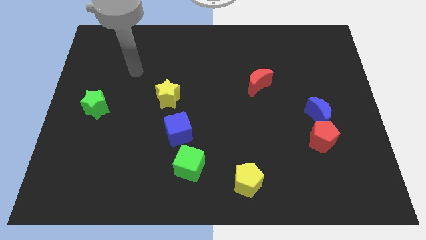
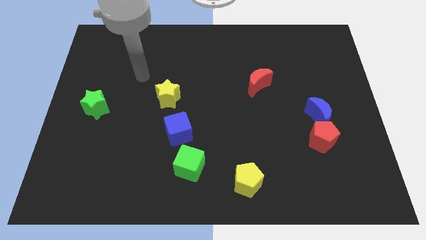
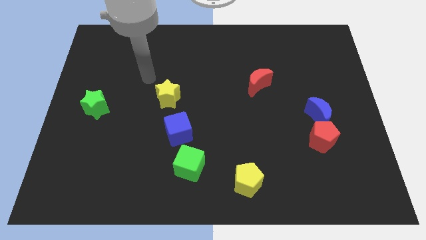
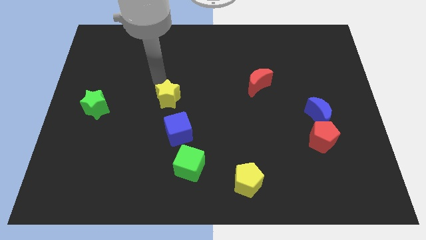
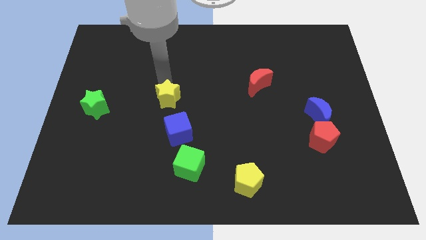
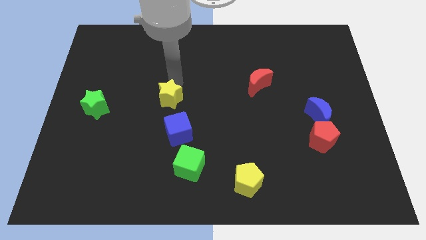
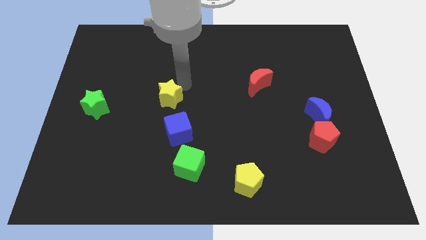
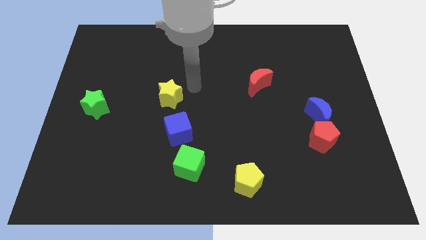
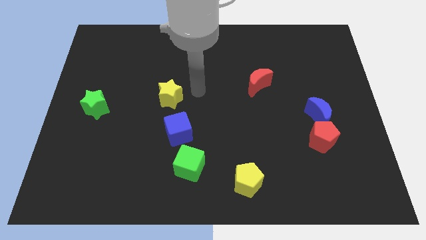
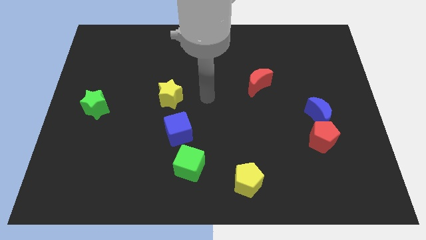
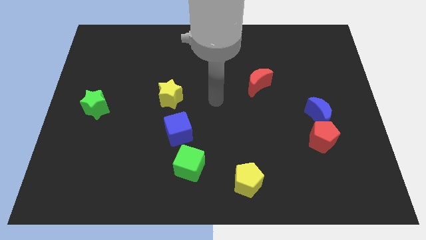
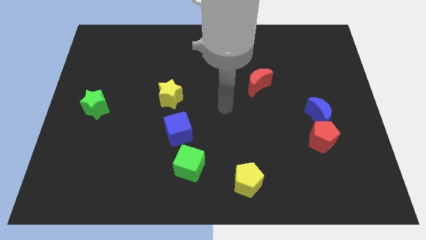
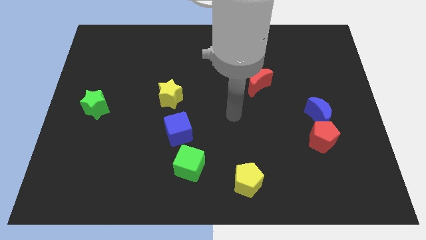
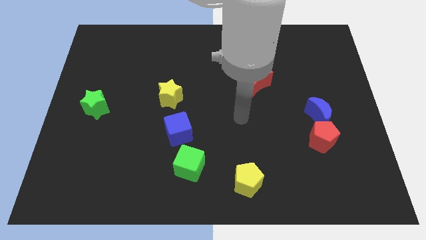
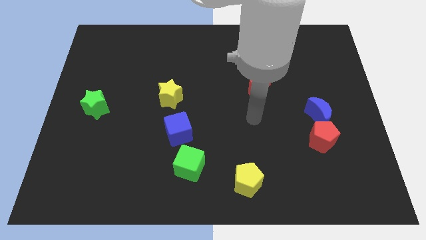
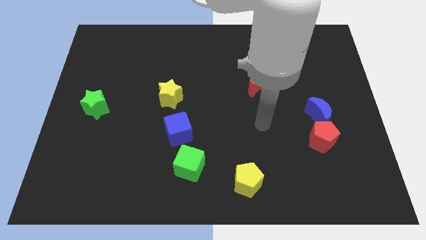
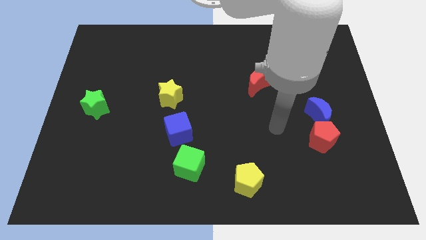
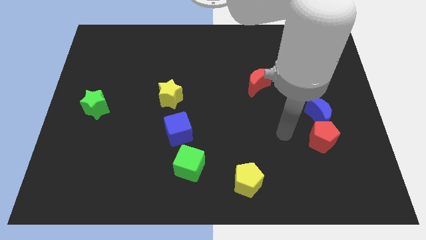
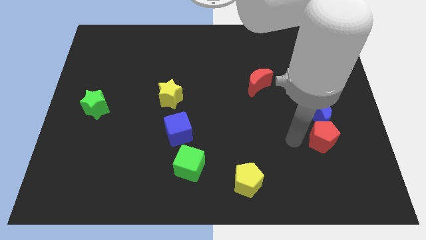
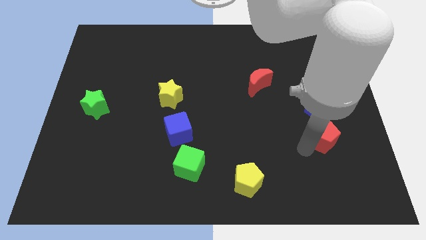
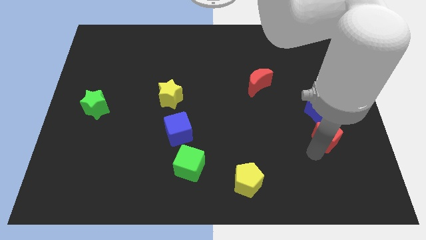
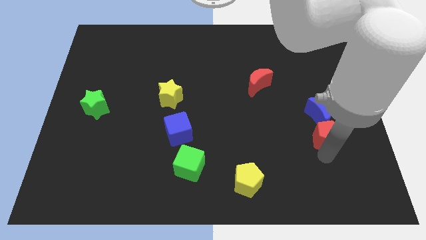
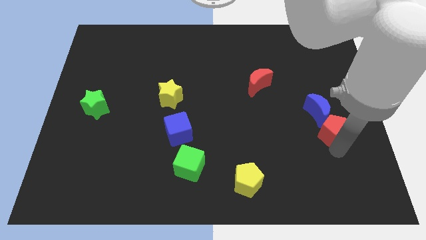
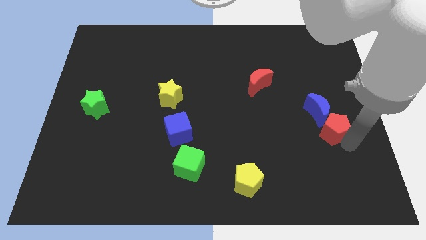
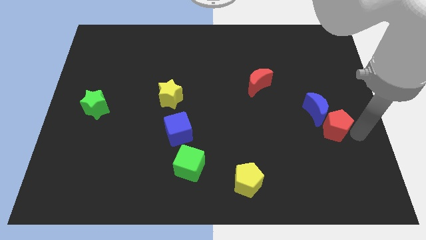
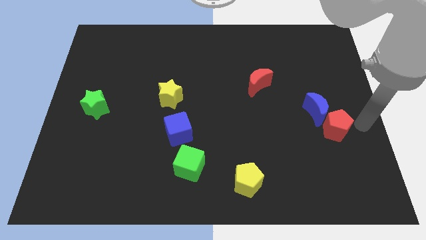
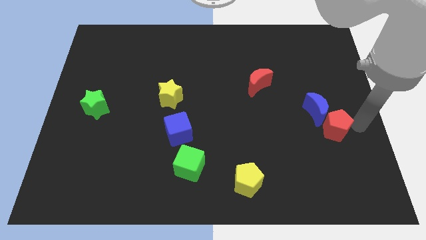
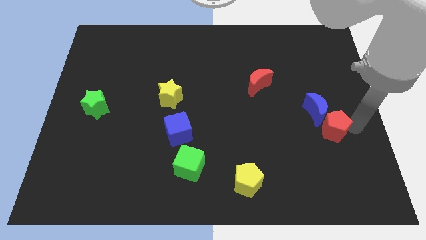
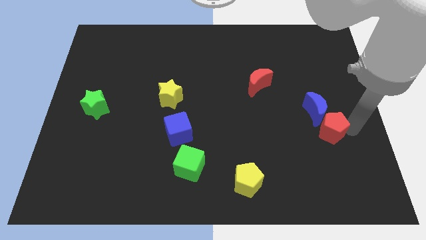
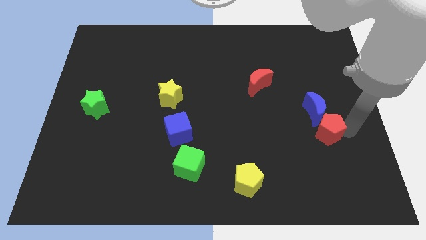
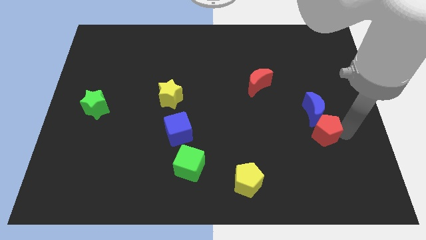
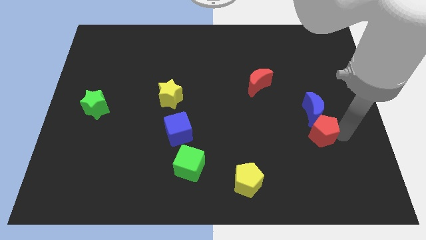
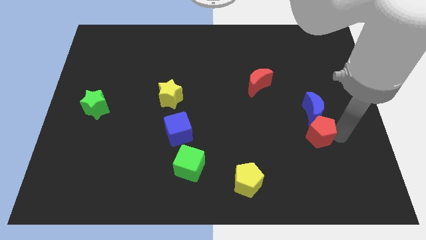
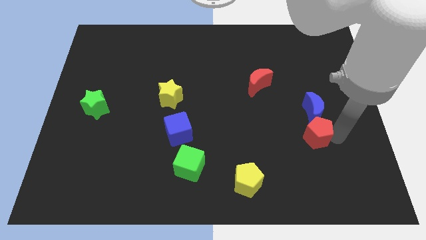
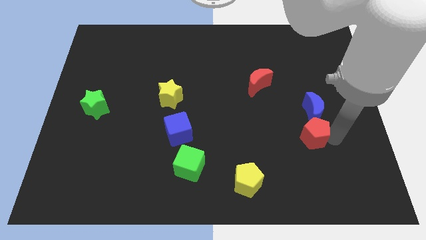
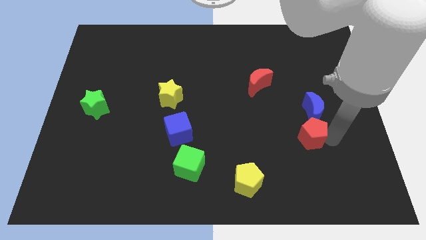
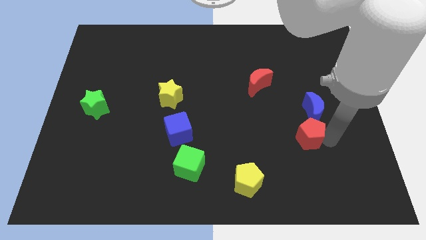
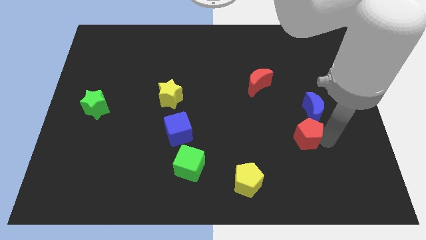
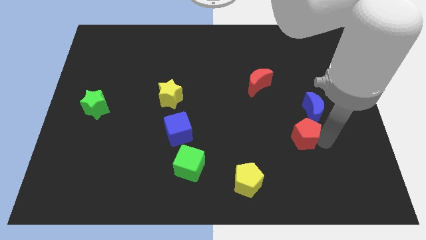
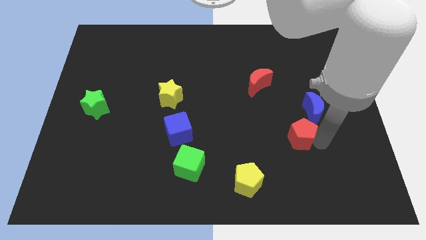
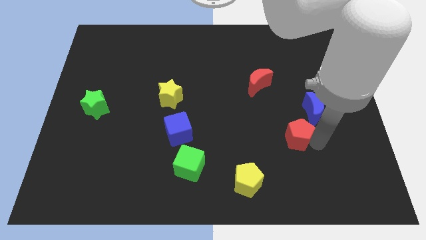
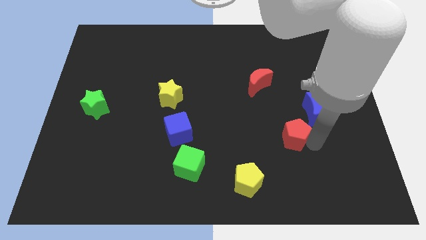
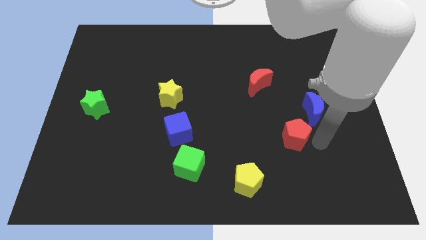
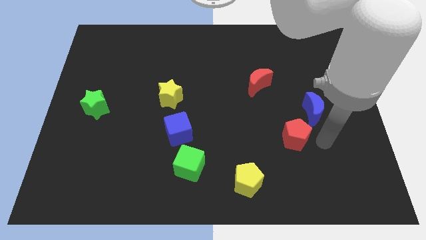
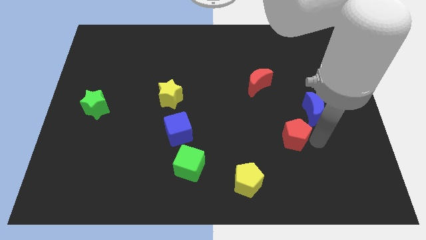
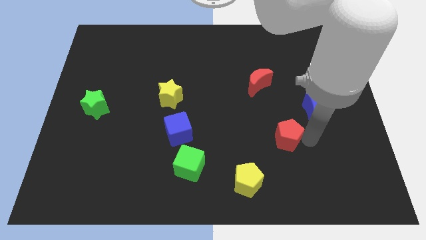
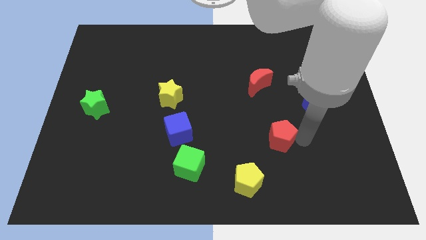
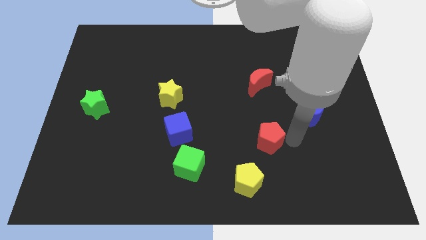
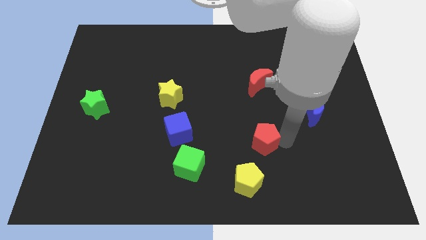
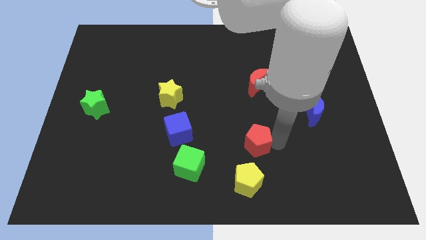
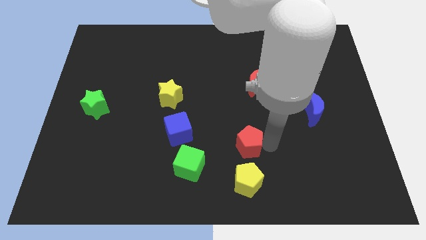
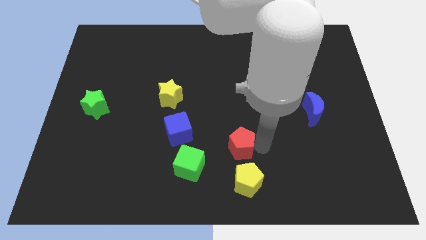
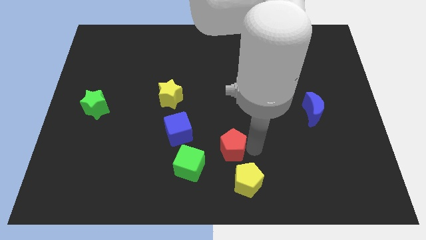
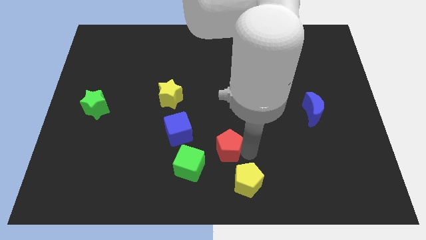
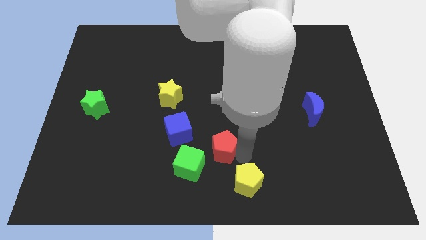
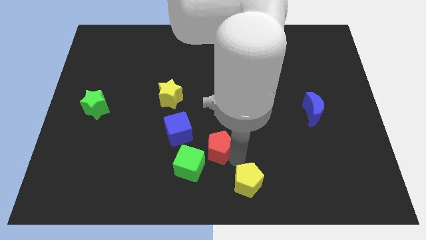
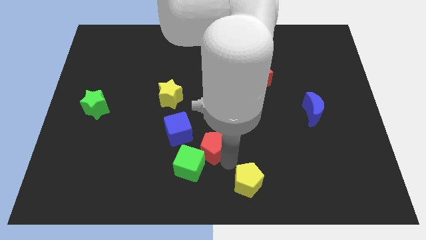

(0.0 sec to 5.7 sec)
slide the red pentagon above the green cube

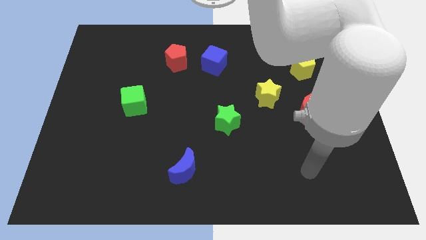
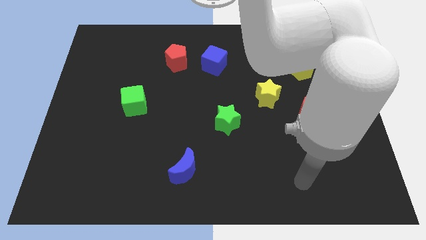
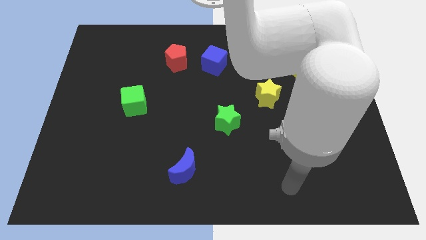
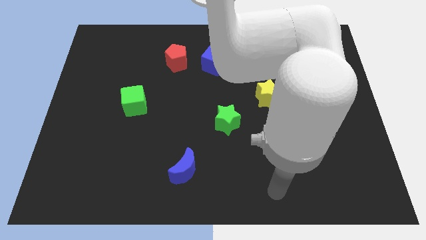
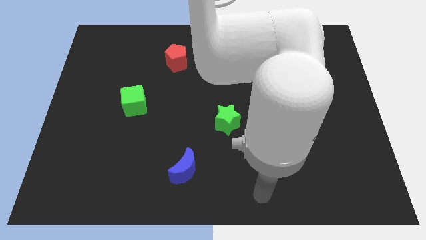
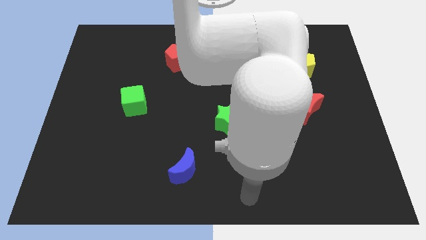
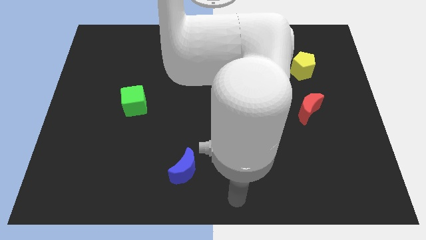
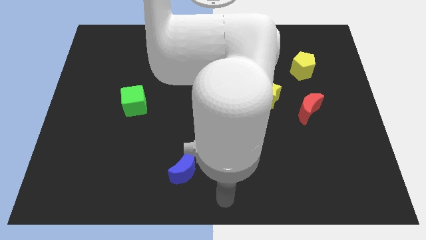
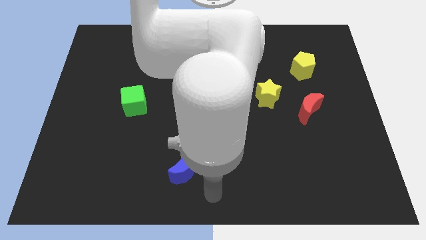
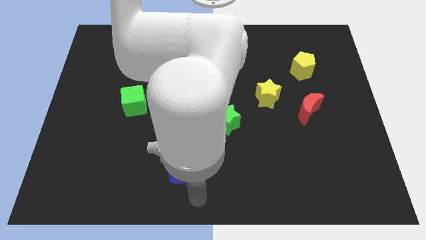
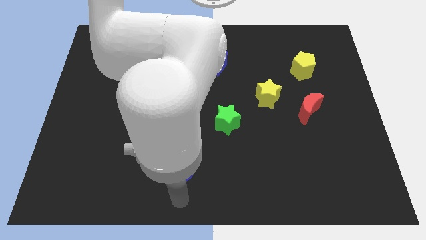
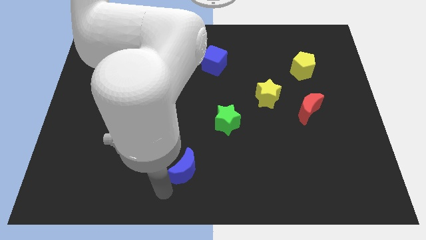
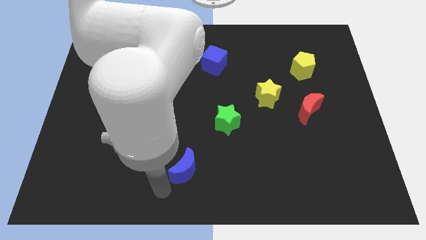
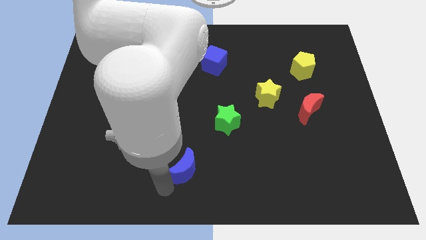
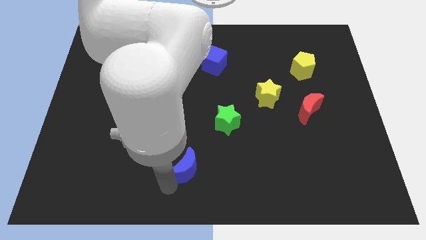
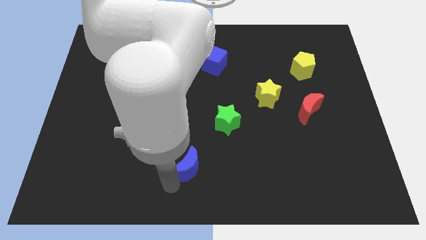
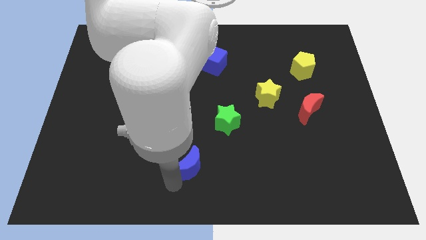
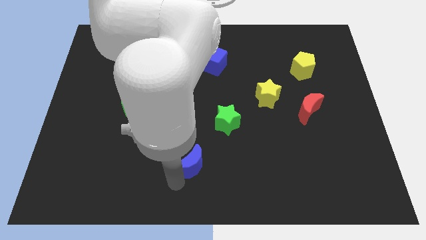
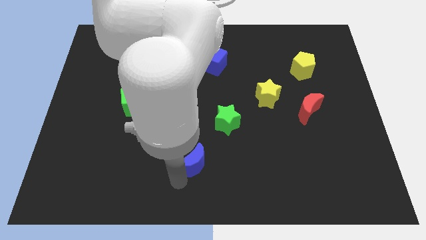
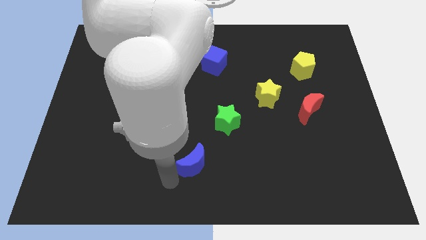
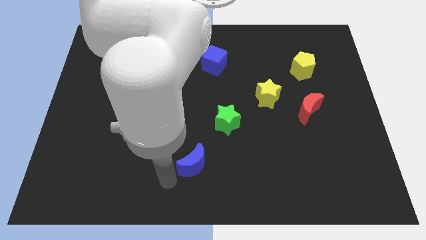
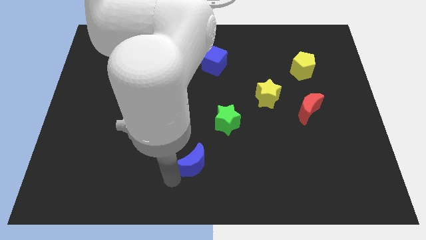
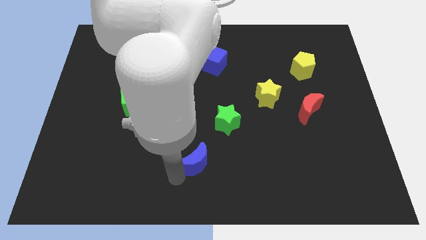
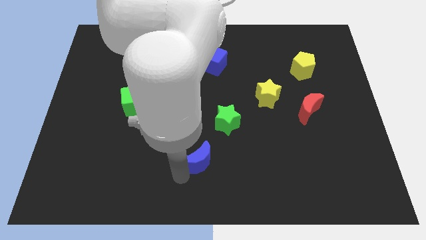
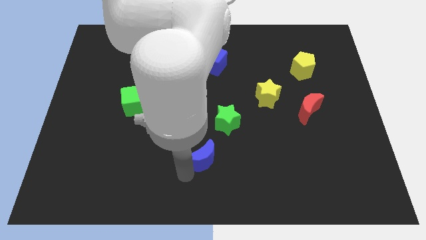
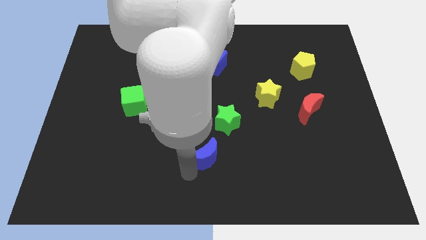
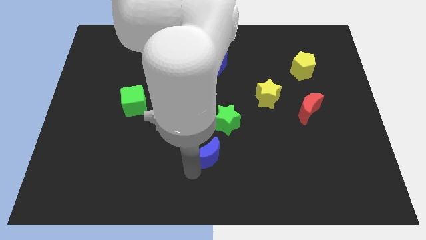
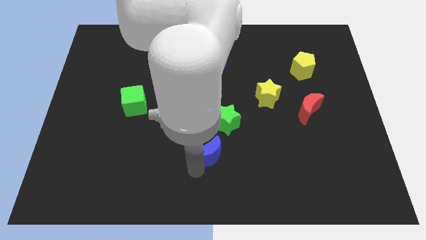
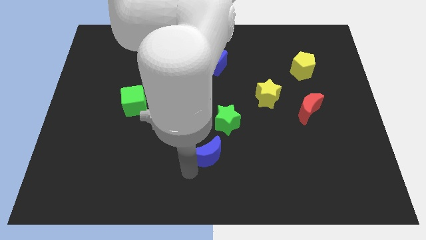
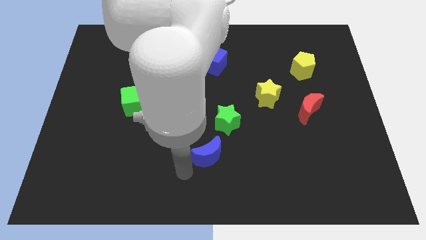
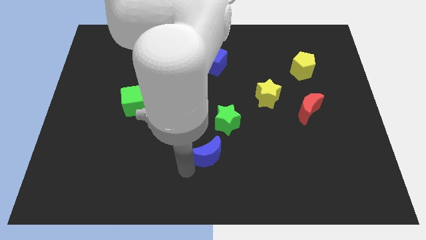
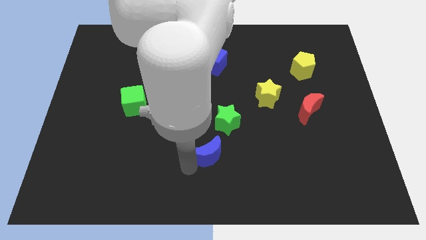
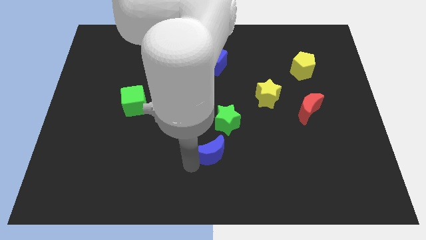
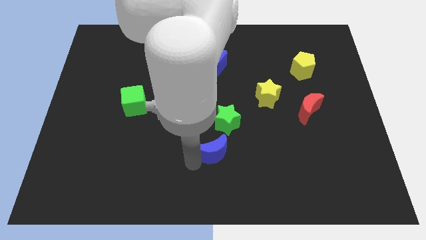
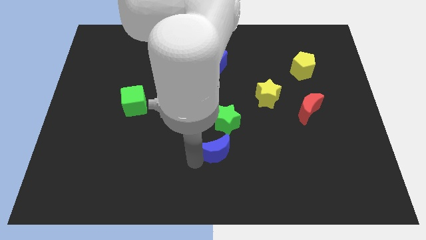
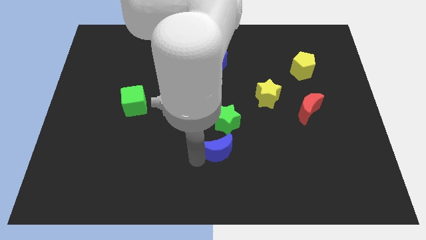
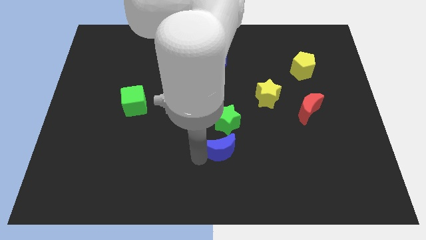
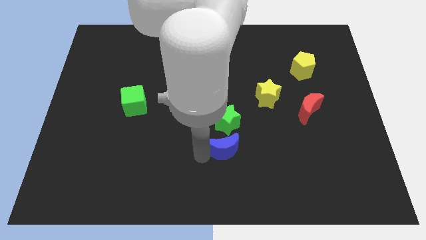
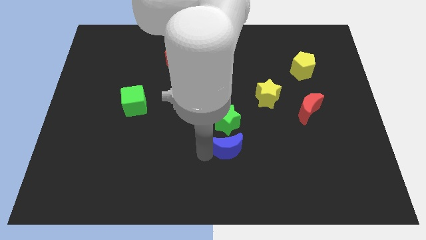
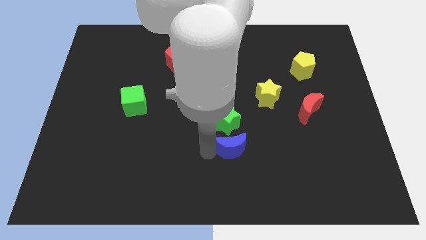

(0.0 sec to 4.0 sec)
put the blue moon to the bottom right of the green star
